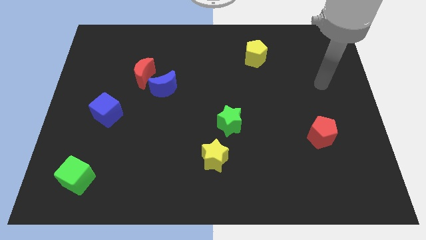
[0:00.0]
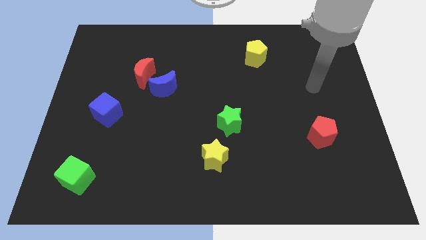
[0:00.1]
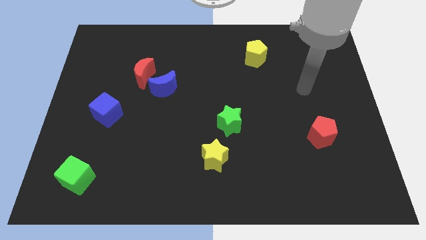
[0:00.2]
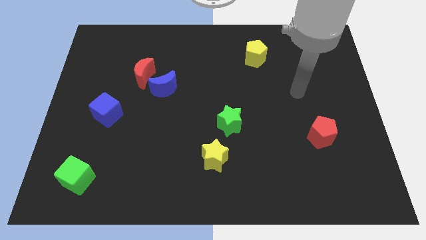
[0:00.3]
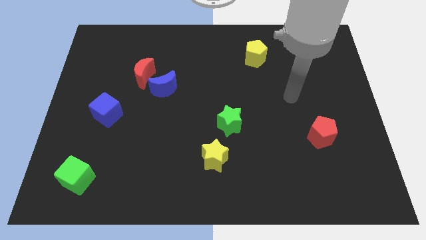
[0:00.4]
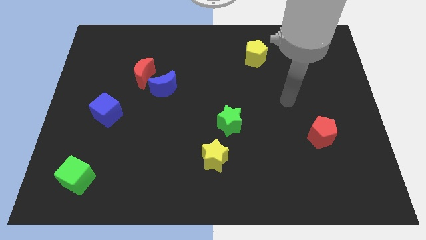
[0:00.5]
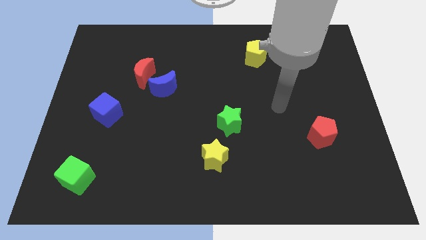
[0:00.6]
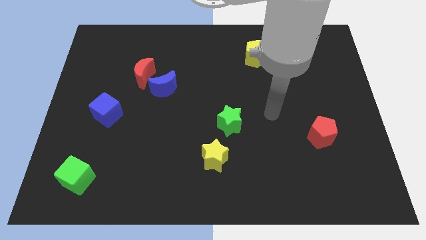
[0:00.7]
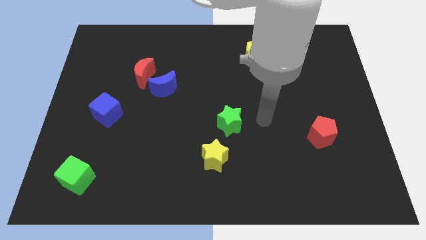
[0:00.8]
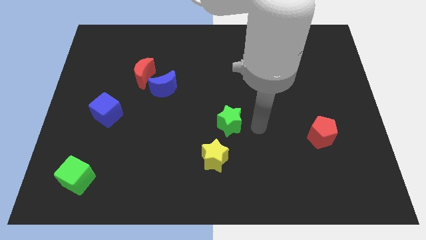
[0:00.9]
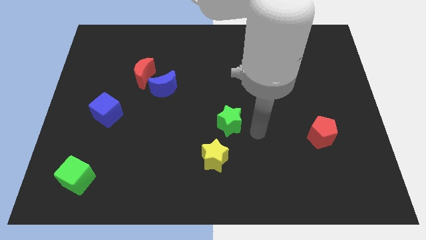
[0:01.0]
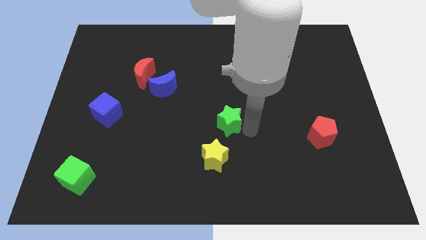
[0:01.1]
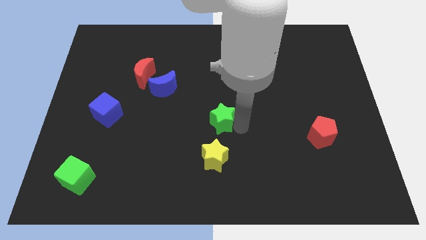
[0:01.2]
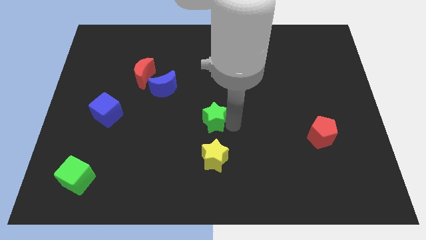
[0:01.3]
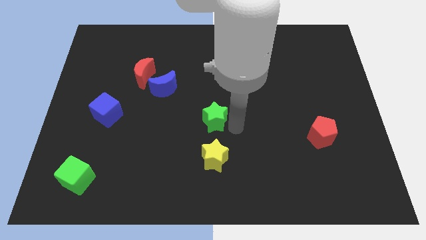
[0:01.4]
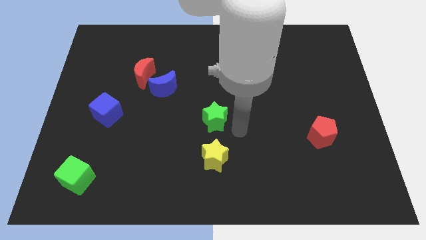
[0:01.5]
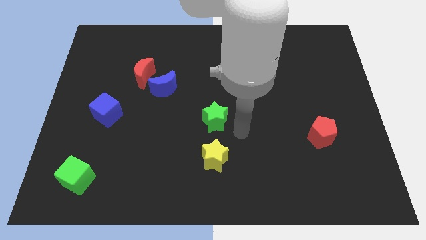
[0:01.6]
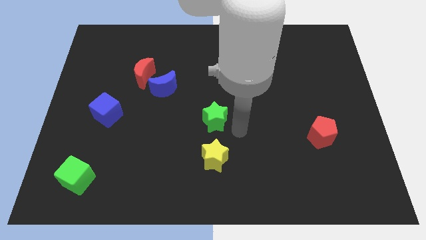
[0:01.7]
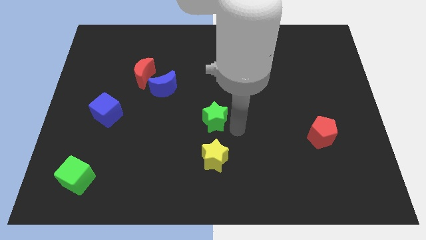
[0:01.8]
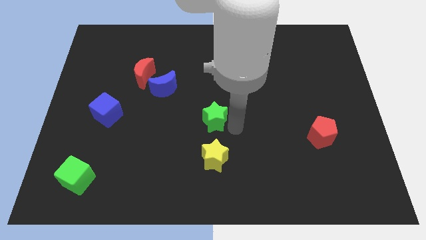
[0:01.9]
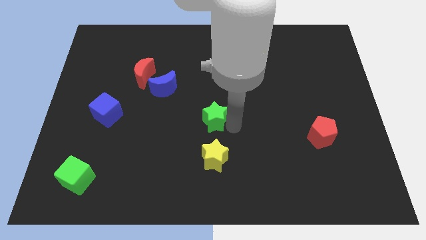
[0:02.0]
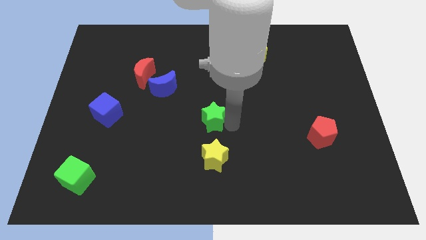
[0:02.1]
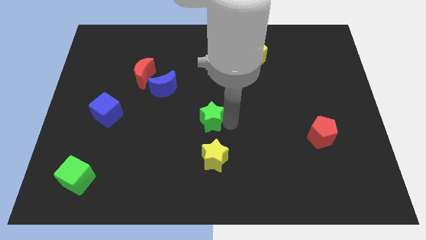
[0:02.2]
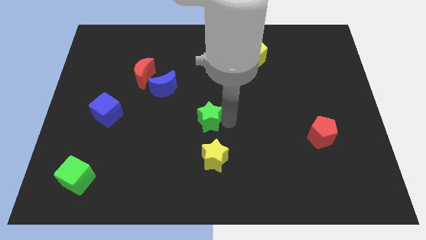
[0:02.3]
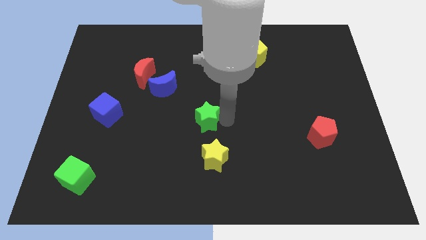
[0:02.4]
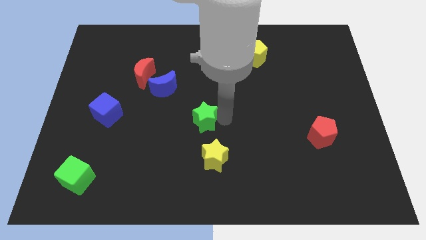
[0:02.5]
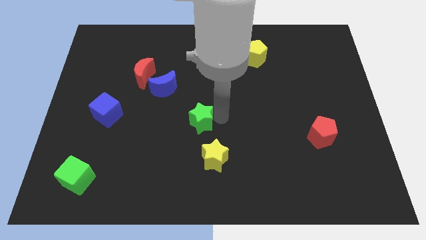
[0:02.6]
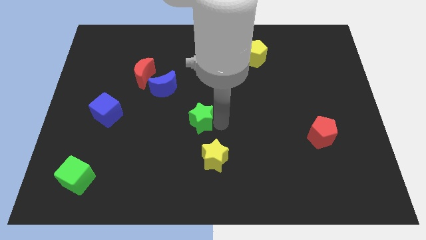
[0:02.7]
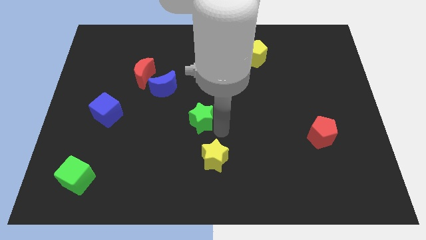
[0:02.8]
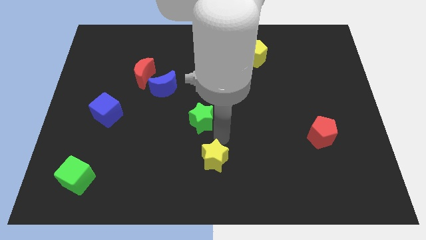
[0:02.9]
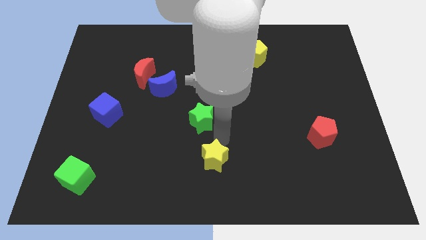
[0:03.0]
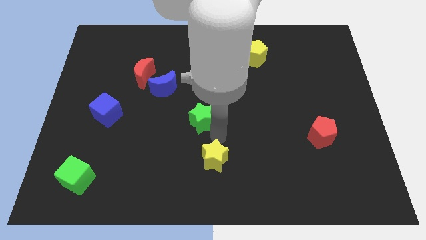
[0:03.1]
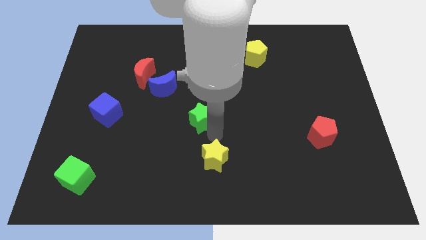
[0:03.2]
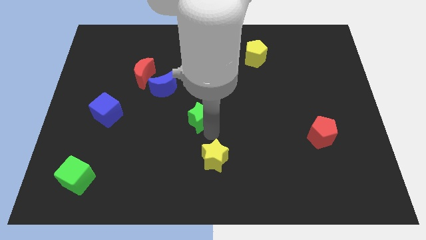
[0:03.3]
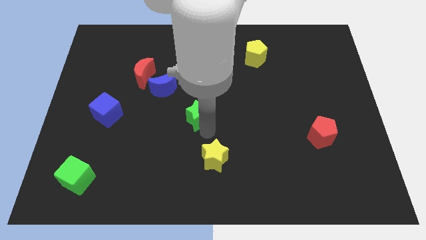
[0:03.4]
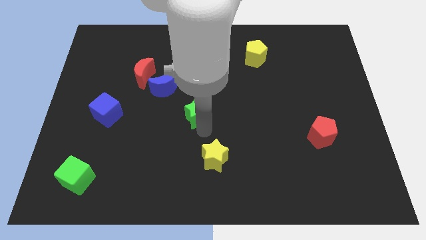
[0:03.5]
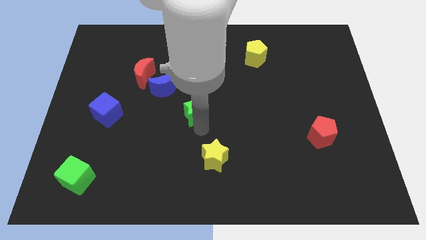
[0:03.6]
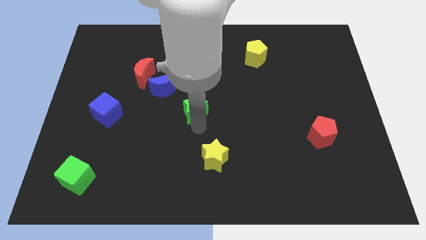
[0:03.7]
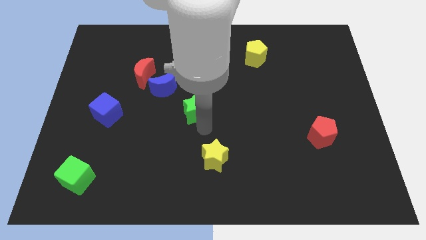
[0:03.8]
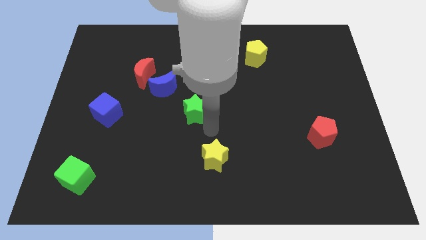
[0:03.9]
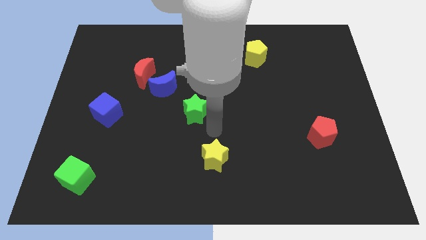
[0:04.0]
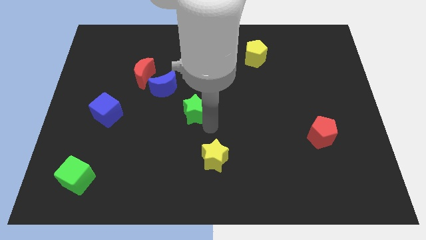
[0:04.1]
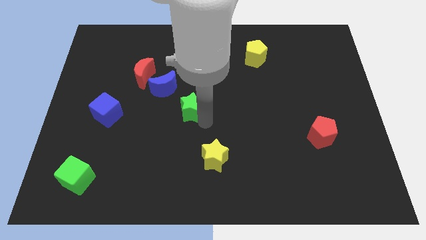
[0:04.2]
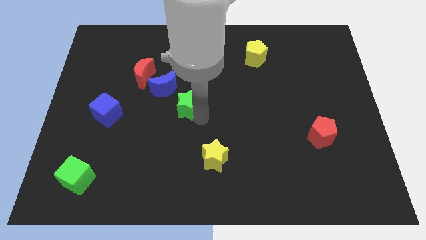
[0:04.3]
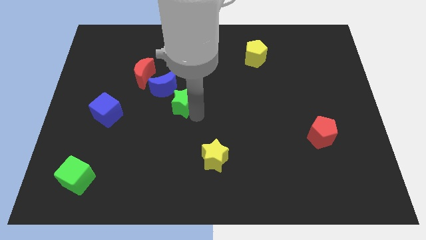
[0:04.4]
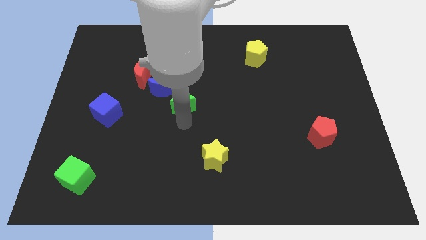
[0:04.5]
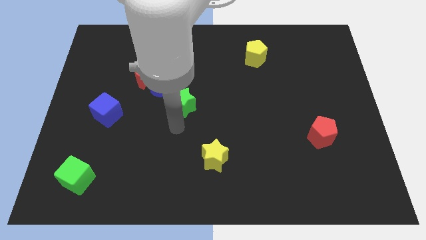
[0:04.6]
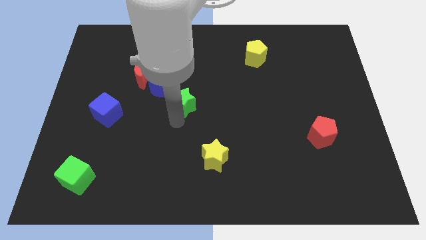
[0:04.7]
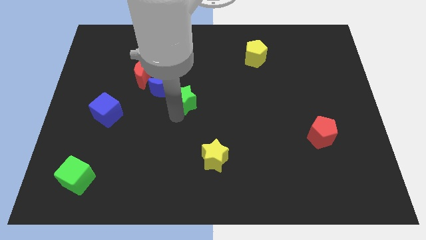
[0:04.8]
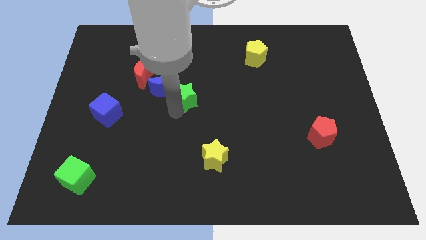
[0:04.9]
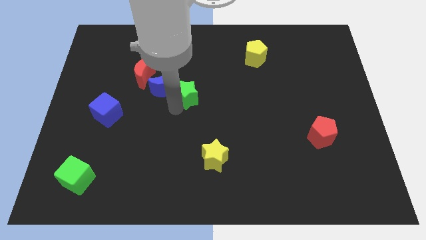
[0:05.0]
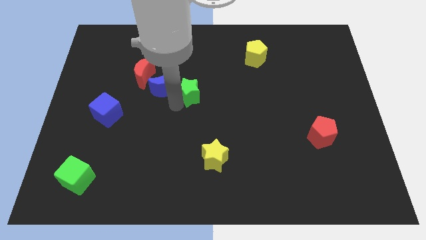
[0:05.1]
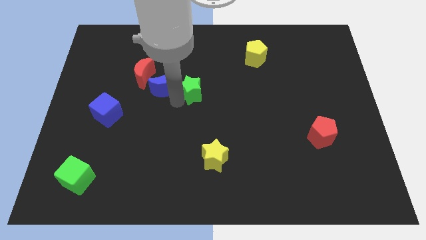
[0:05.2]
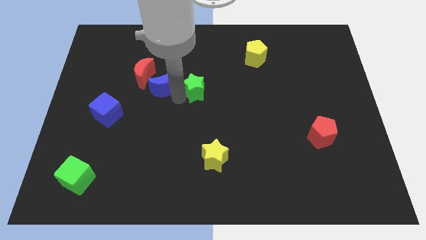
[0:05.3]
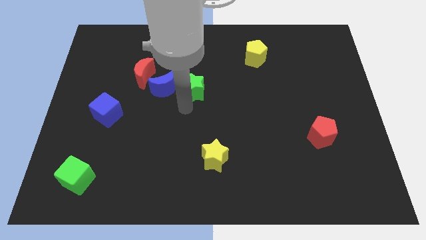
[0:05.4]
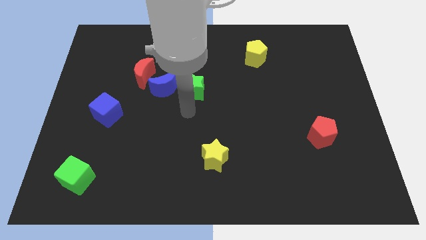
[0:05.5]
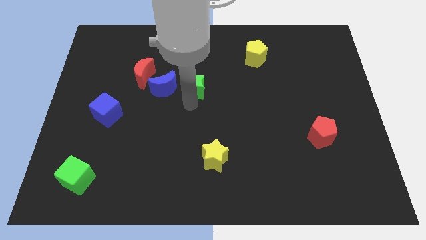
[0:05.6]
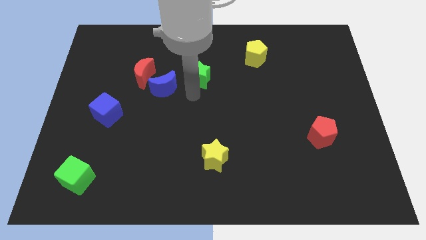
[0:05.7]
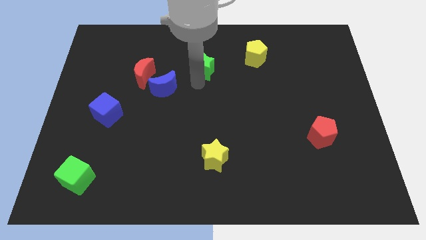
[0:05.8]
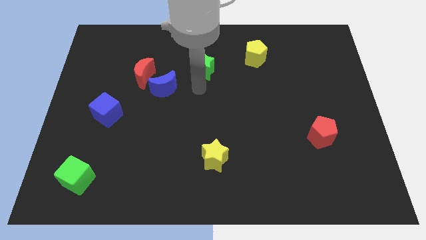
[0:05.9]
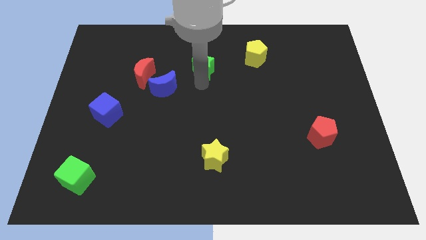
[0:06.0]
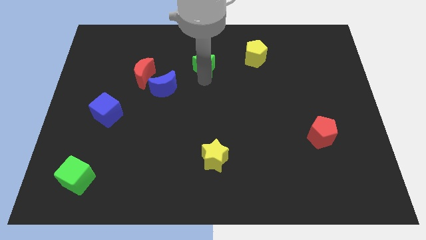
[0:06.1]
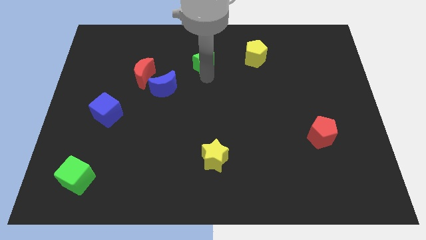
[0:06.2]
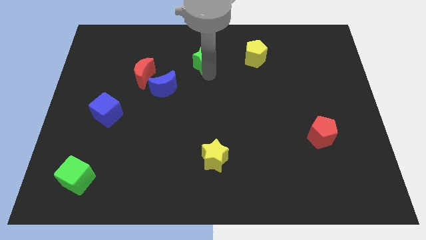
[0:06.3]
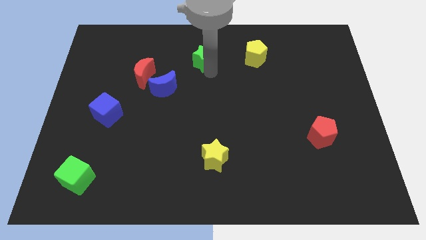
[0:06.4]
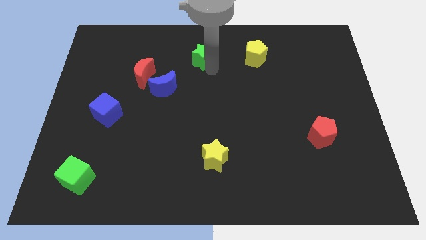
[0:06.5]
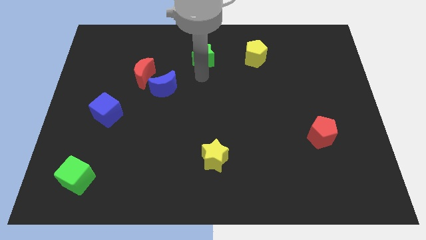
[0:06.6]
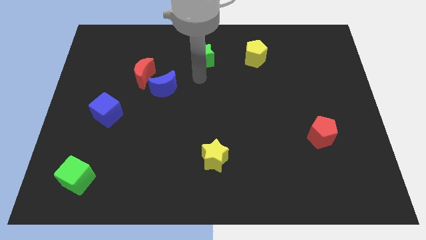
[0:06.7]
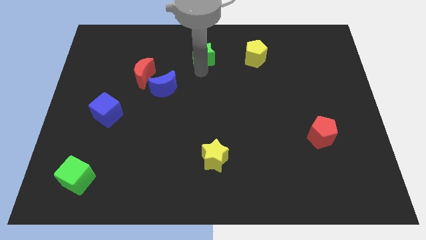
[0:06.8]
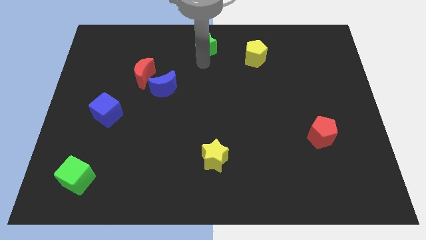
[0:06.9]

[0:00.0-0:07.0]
slide the green star to the top side

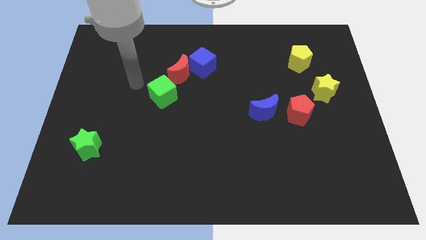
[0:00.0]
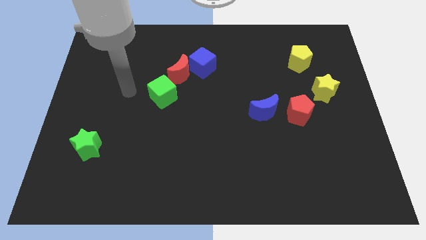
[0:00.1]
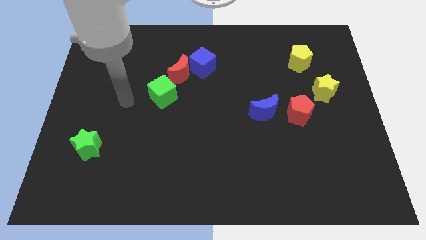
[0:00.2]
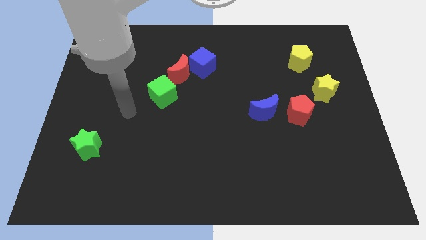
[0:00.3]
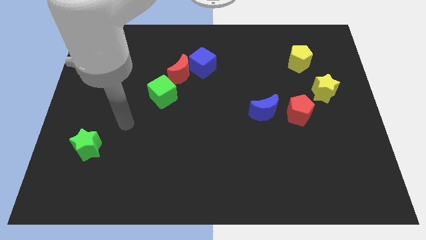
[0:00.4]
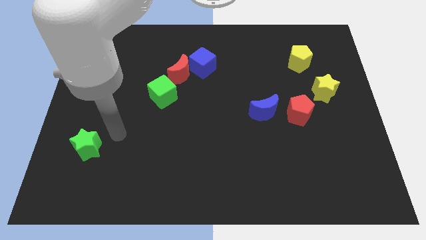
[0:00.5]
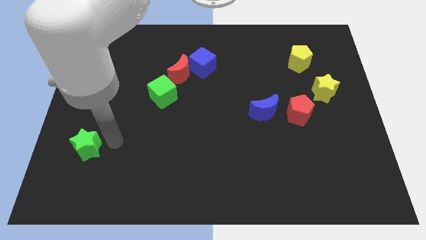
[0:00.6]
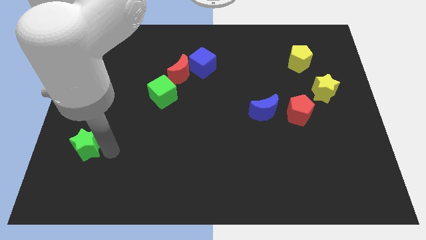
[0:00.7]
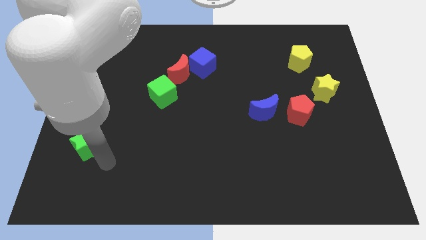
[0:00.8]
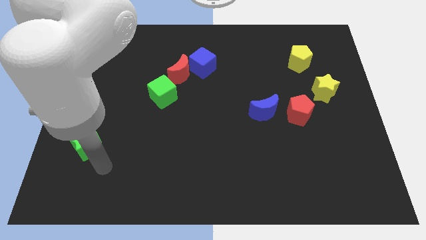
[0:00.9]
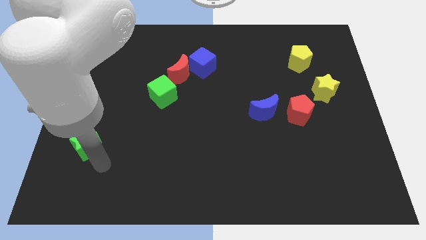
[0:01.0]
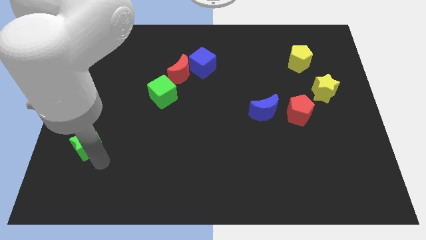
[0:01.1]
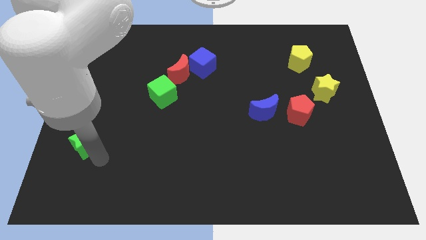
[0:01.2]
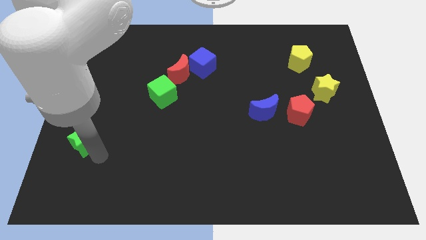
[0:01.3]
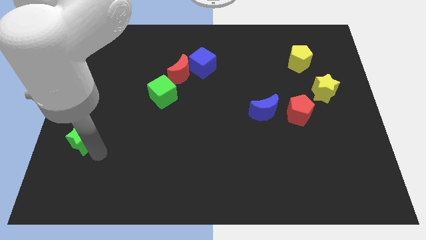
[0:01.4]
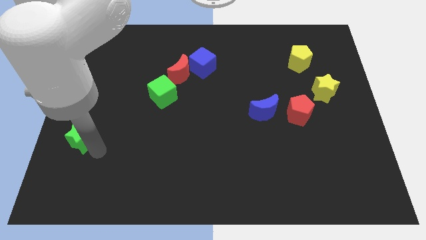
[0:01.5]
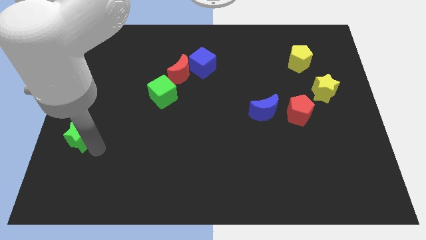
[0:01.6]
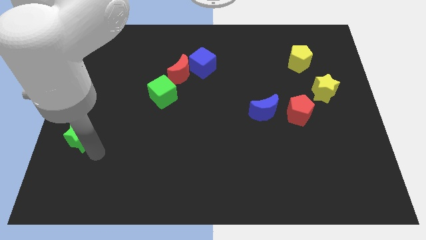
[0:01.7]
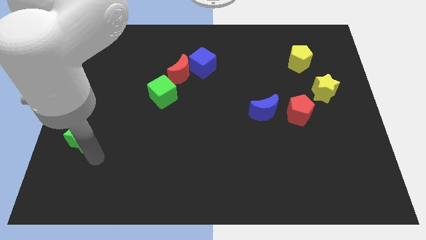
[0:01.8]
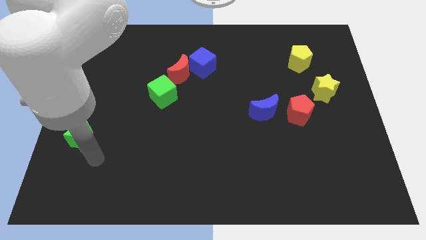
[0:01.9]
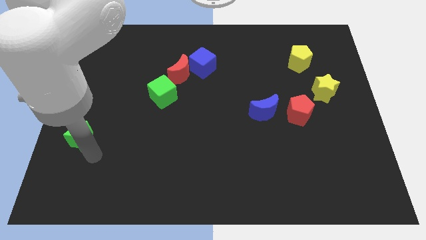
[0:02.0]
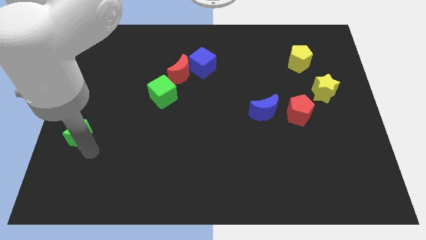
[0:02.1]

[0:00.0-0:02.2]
move the green star to the left side
